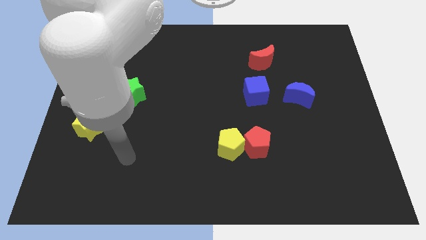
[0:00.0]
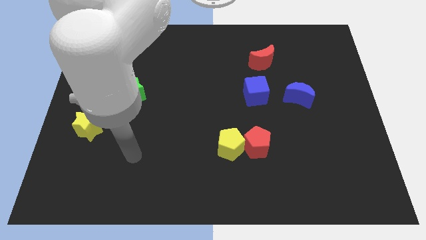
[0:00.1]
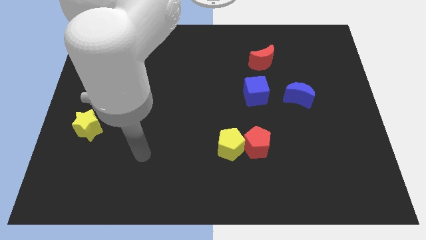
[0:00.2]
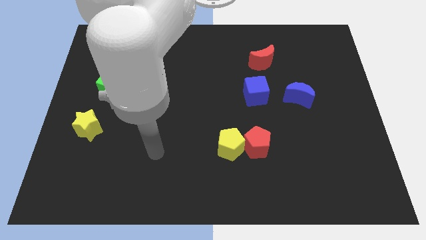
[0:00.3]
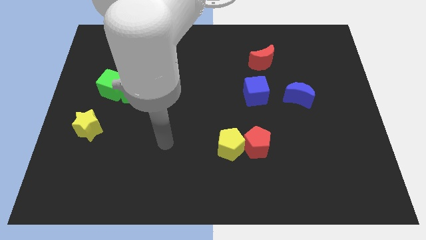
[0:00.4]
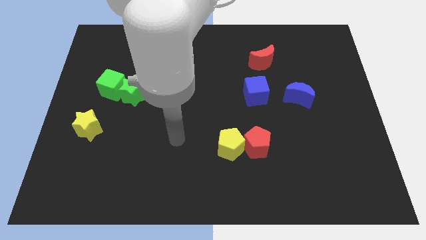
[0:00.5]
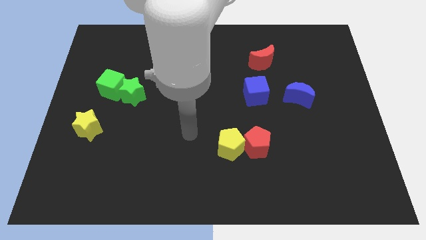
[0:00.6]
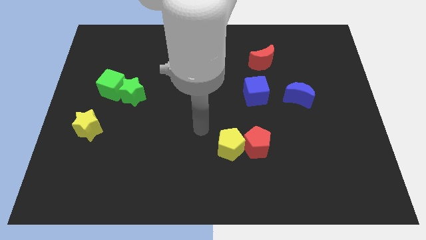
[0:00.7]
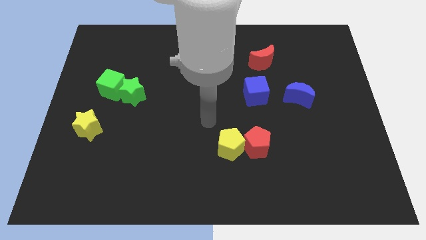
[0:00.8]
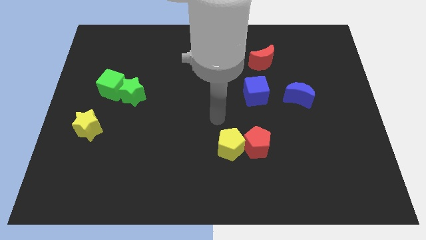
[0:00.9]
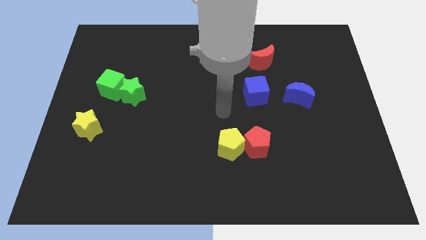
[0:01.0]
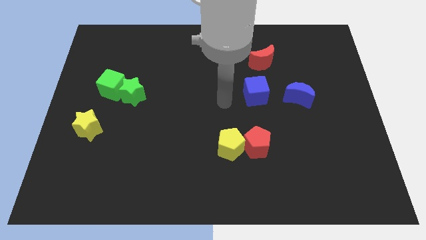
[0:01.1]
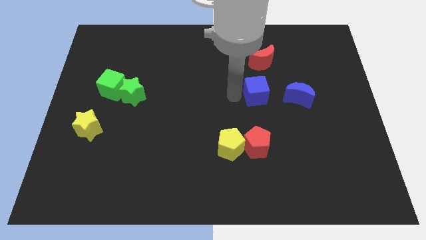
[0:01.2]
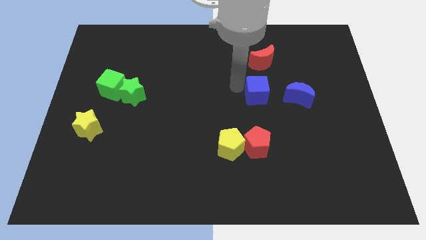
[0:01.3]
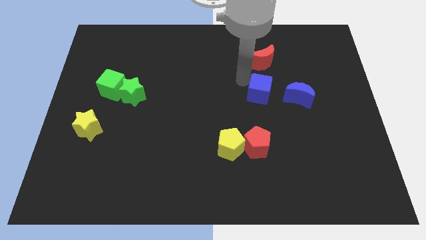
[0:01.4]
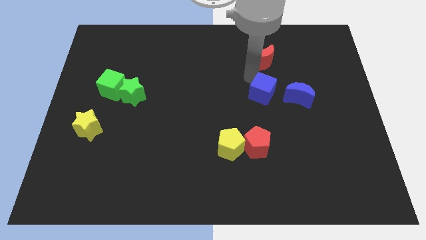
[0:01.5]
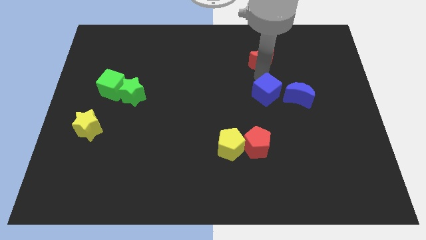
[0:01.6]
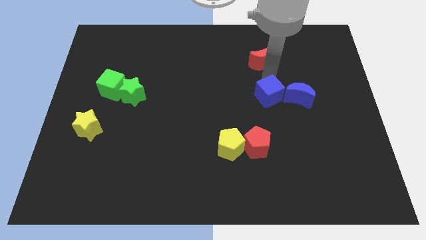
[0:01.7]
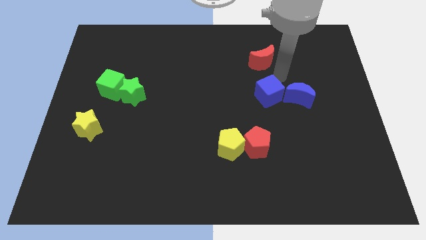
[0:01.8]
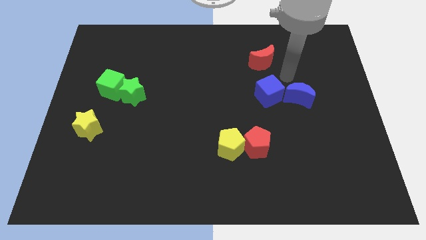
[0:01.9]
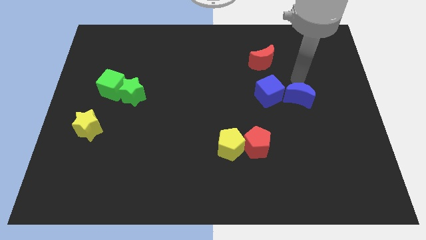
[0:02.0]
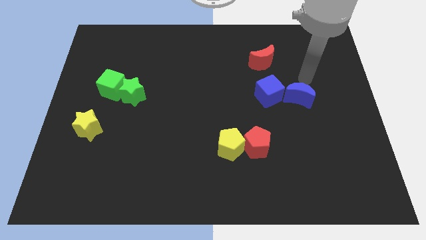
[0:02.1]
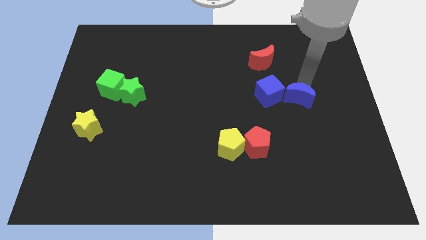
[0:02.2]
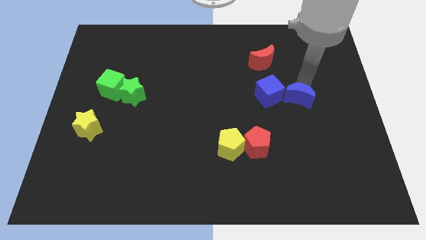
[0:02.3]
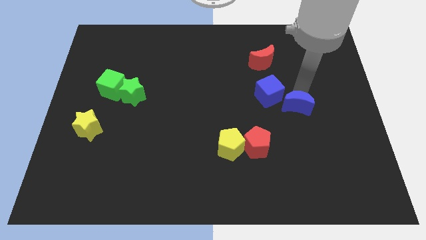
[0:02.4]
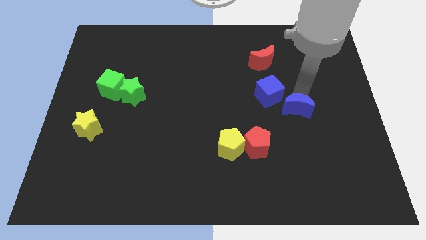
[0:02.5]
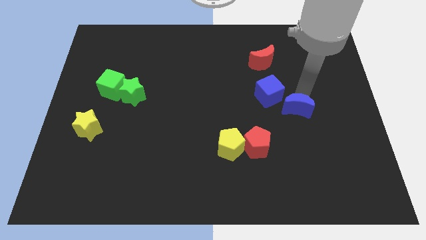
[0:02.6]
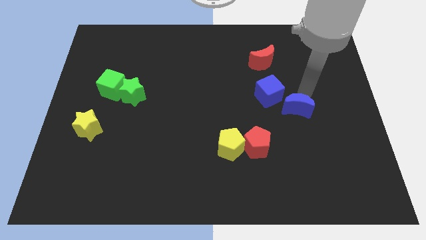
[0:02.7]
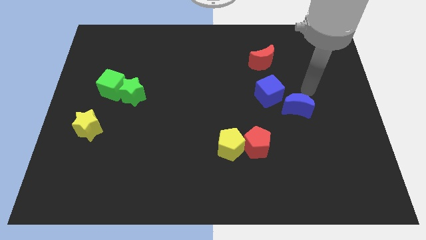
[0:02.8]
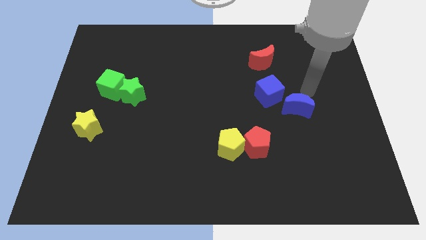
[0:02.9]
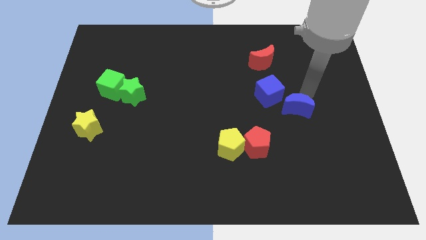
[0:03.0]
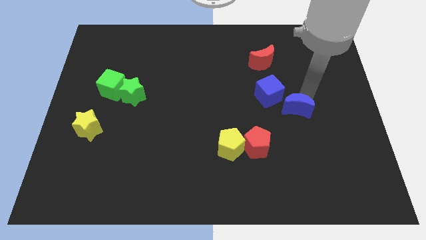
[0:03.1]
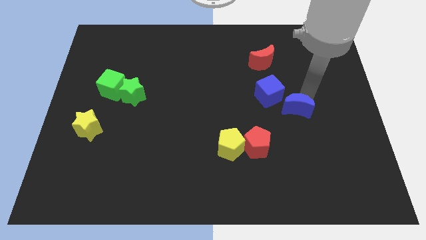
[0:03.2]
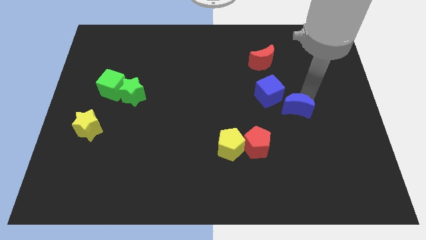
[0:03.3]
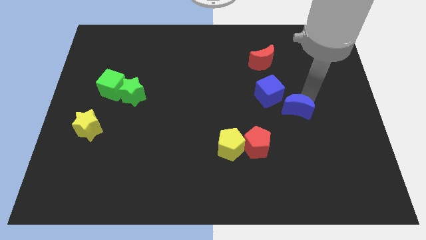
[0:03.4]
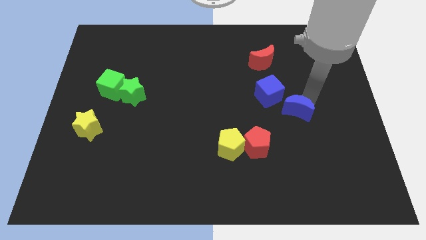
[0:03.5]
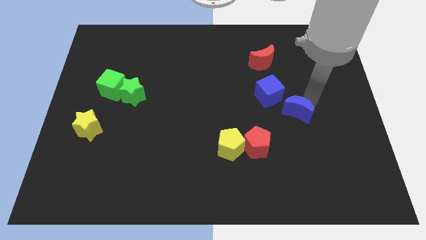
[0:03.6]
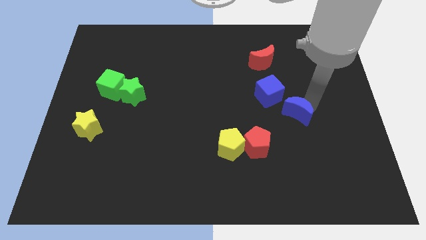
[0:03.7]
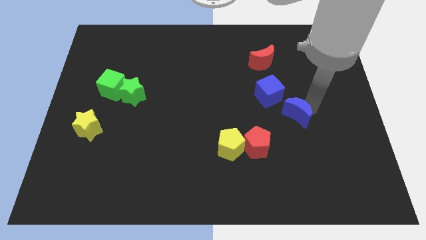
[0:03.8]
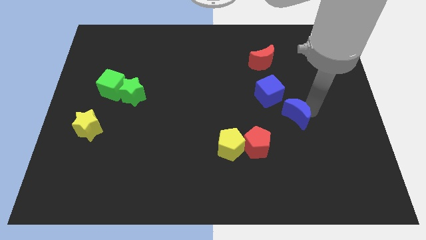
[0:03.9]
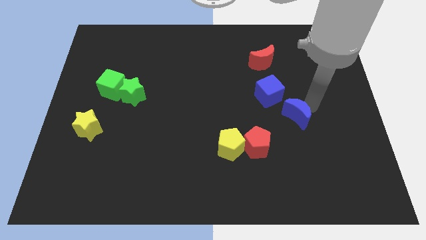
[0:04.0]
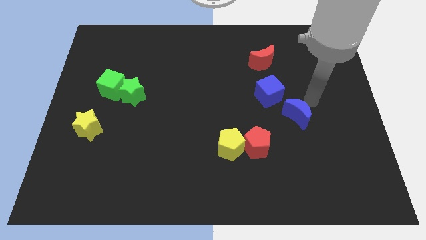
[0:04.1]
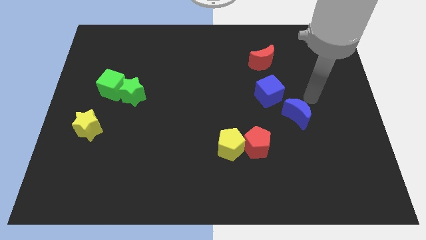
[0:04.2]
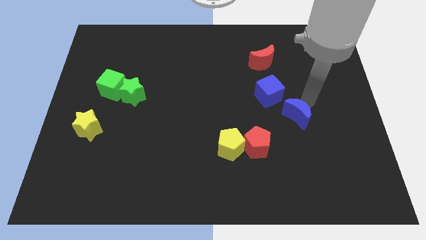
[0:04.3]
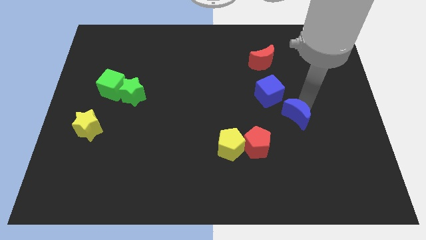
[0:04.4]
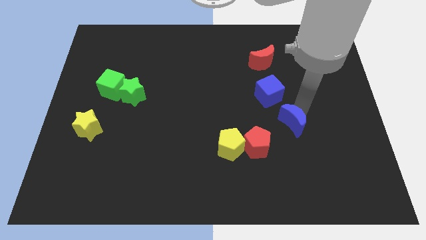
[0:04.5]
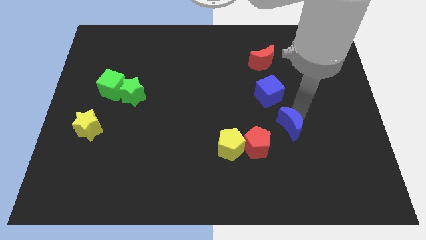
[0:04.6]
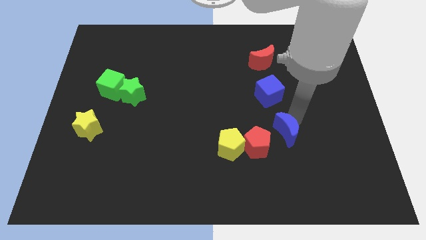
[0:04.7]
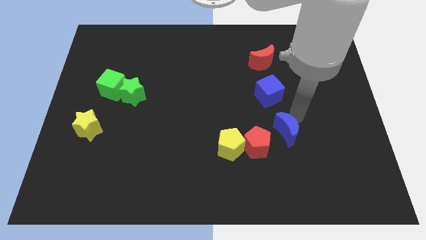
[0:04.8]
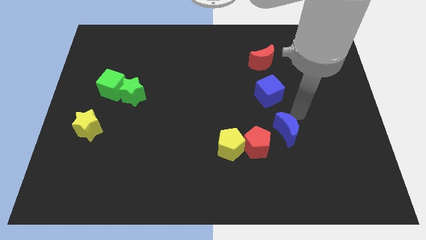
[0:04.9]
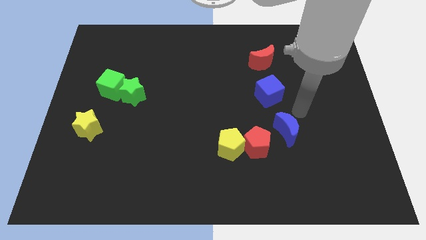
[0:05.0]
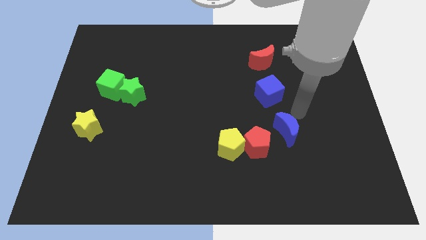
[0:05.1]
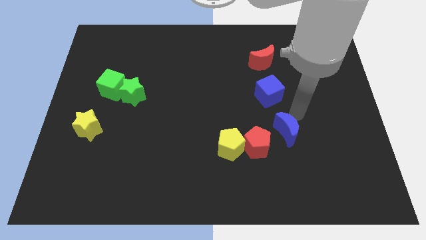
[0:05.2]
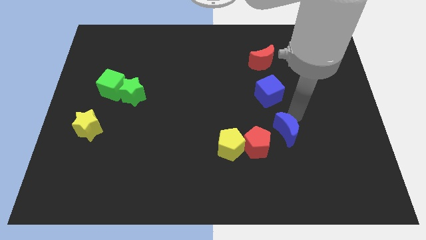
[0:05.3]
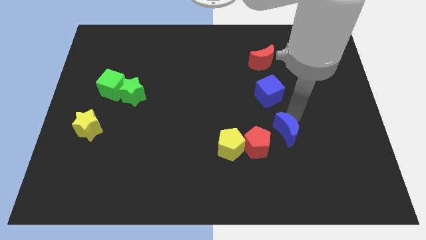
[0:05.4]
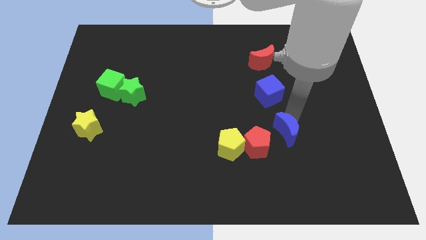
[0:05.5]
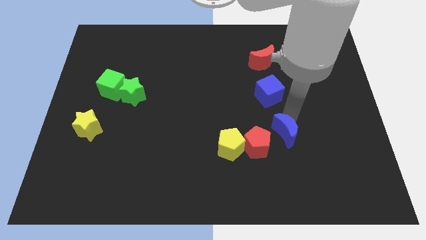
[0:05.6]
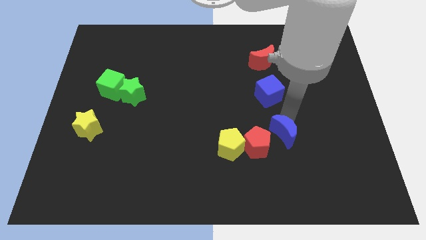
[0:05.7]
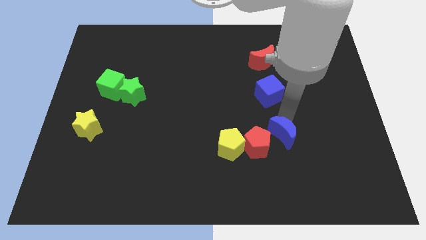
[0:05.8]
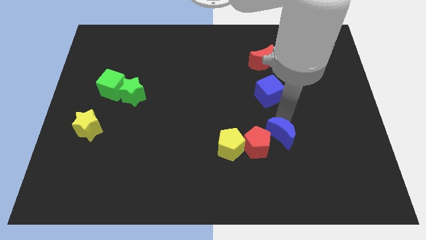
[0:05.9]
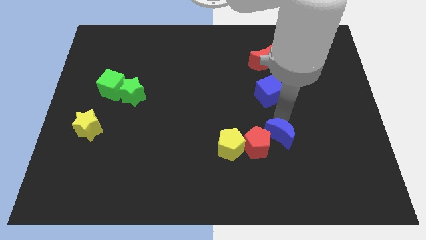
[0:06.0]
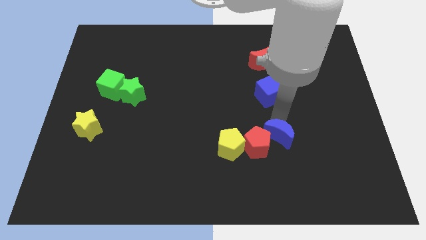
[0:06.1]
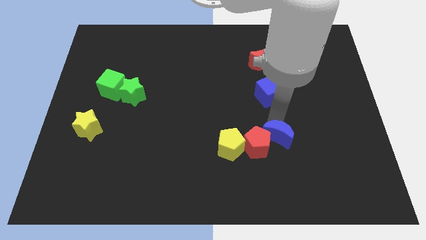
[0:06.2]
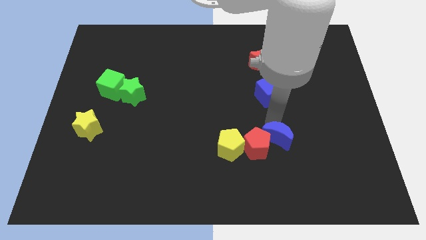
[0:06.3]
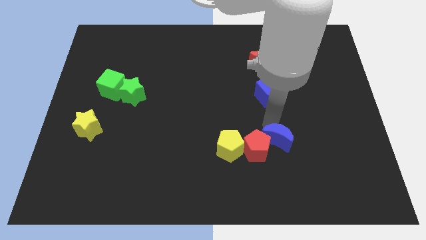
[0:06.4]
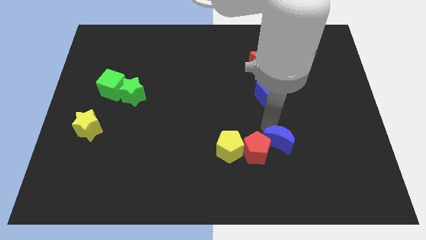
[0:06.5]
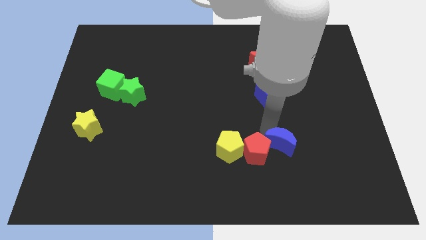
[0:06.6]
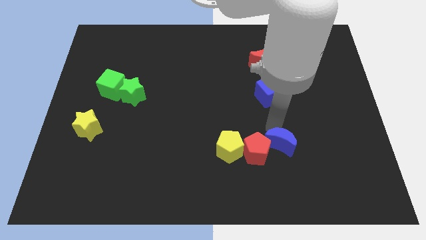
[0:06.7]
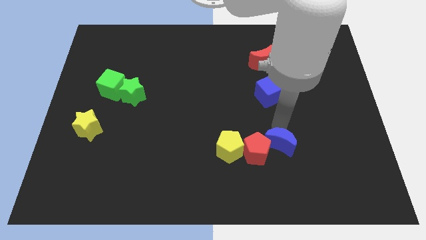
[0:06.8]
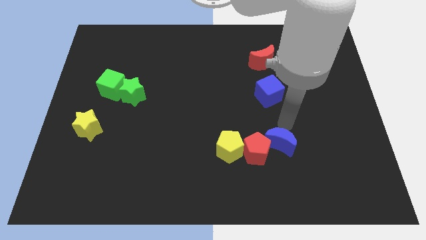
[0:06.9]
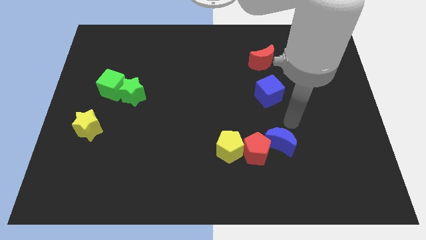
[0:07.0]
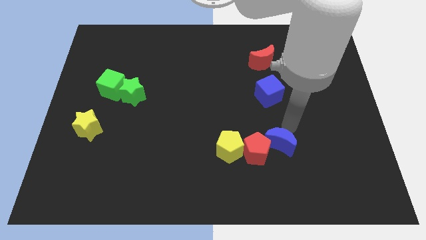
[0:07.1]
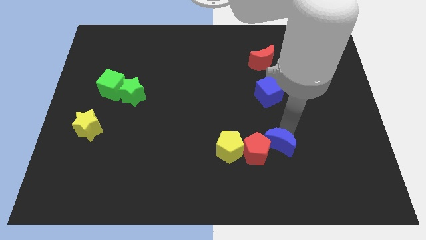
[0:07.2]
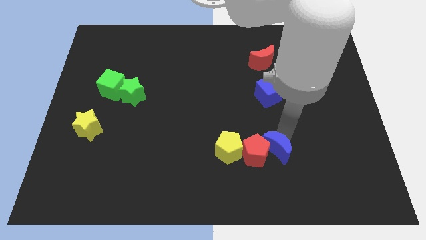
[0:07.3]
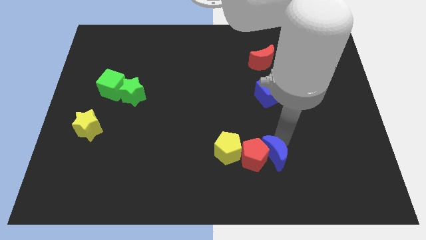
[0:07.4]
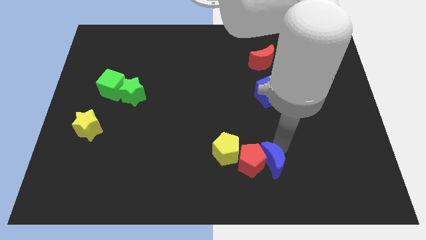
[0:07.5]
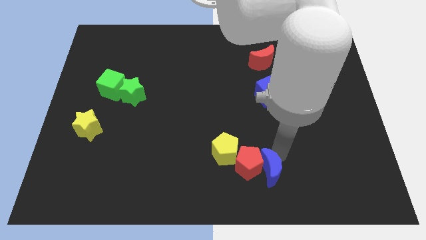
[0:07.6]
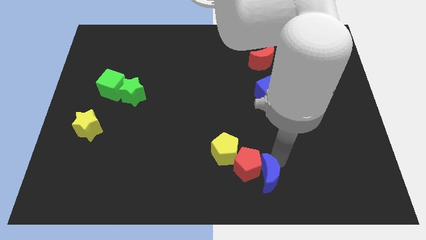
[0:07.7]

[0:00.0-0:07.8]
push the blue moon to the bottom side
